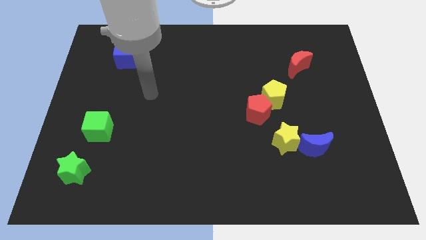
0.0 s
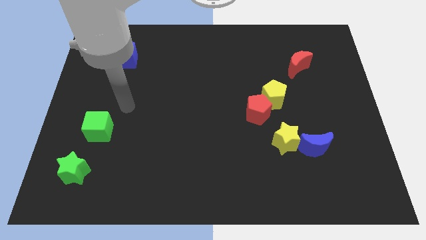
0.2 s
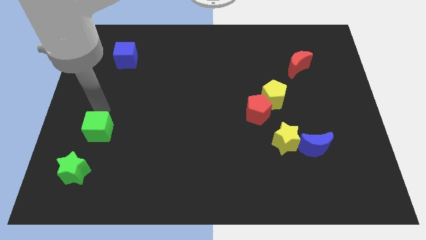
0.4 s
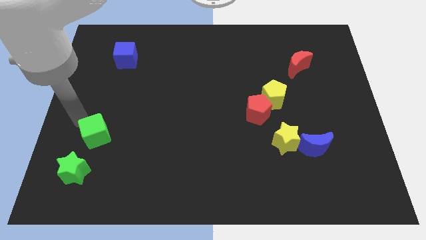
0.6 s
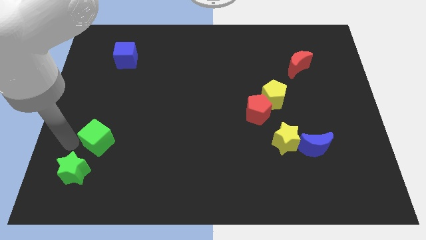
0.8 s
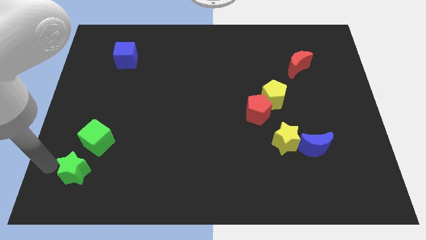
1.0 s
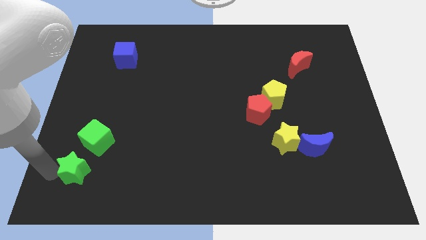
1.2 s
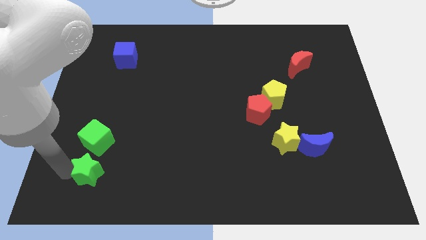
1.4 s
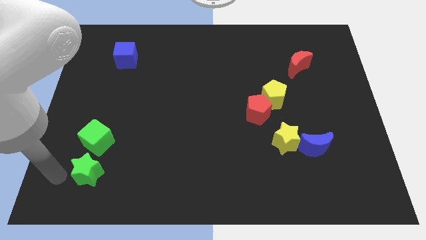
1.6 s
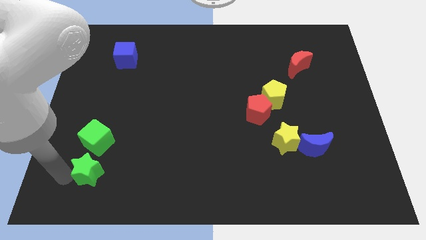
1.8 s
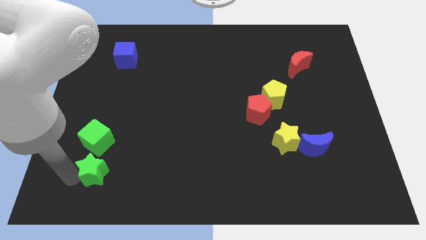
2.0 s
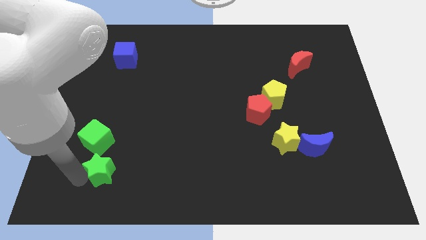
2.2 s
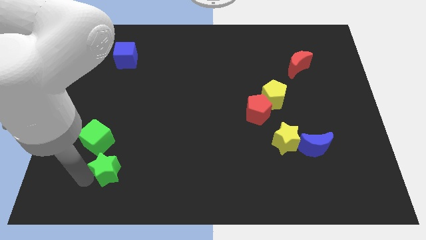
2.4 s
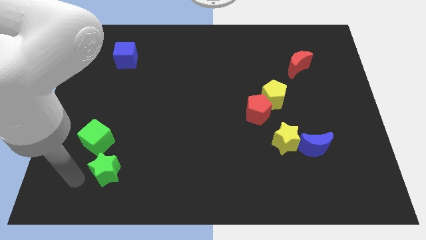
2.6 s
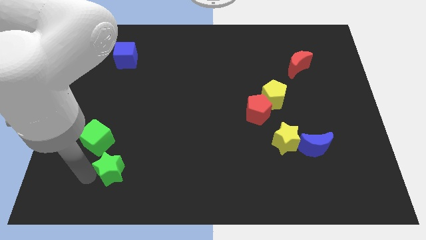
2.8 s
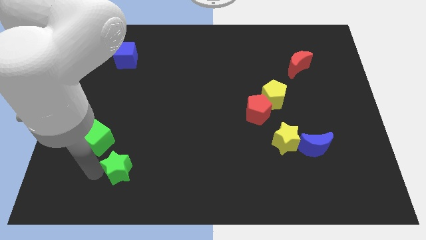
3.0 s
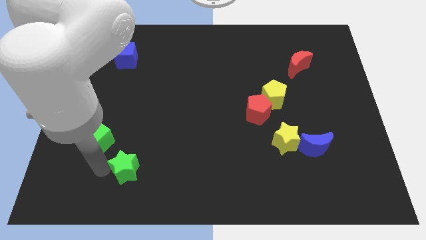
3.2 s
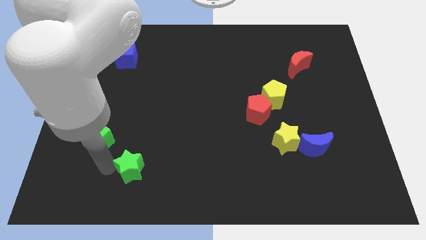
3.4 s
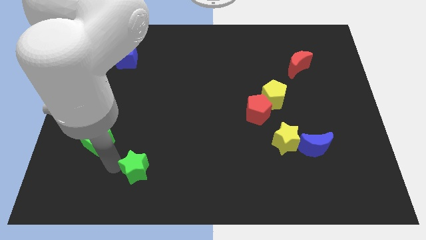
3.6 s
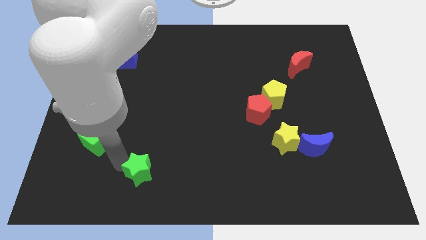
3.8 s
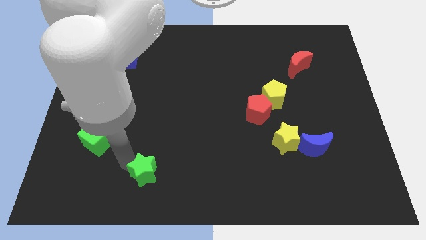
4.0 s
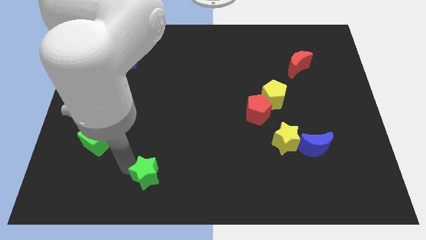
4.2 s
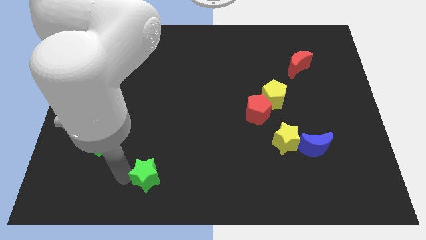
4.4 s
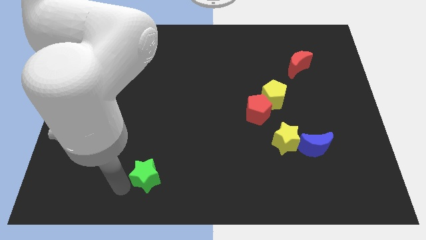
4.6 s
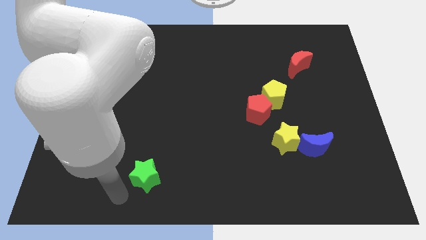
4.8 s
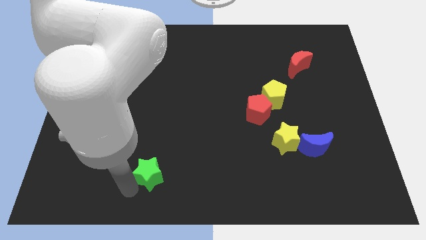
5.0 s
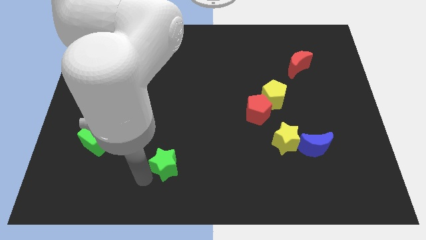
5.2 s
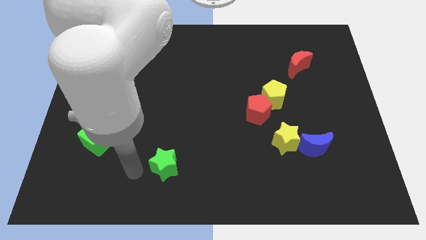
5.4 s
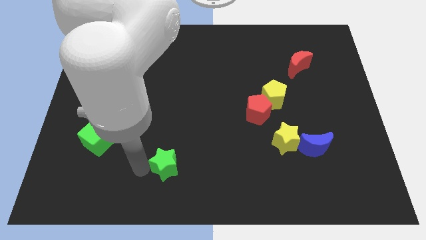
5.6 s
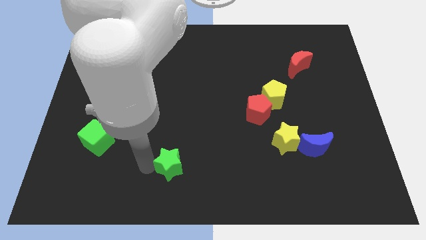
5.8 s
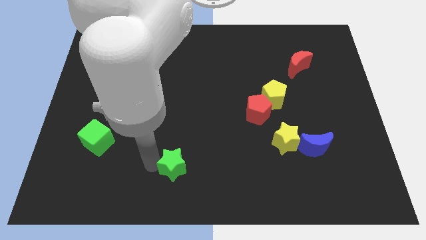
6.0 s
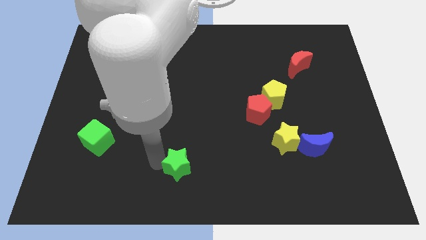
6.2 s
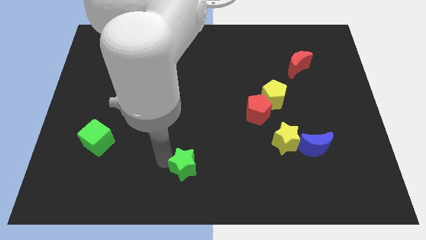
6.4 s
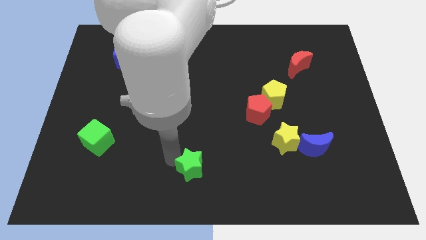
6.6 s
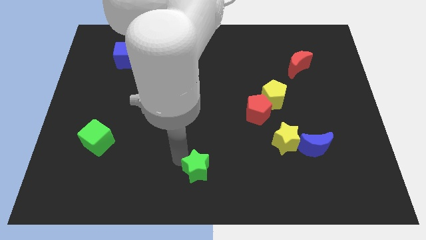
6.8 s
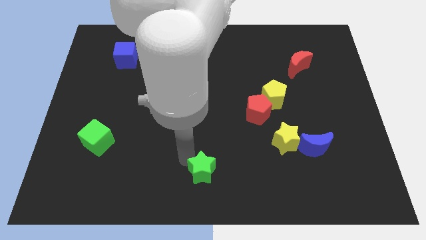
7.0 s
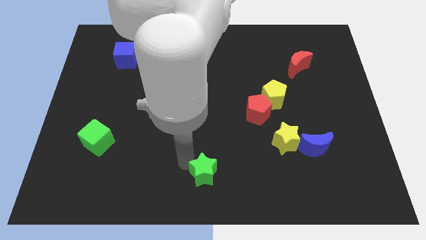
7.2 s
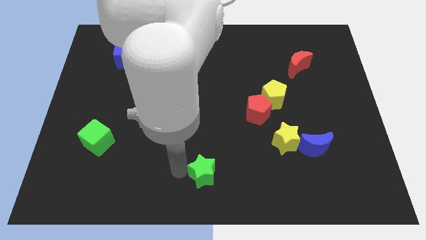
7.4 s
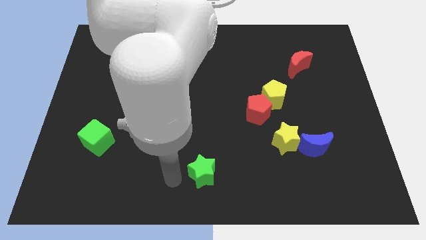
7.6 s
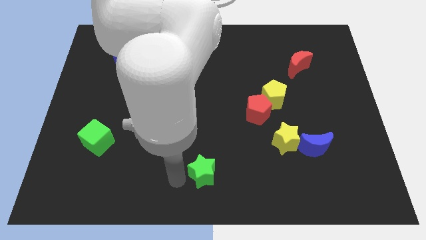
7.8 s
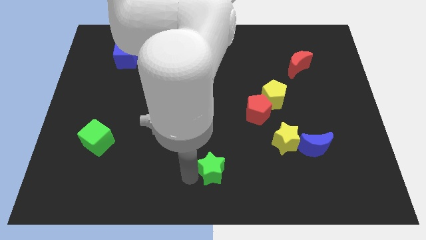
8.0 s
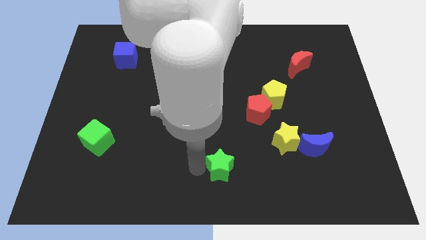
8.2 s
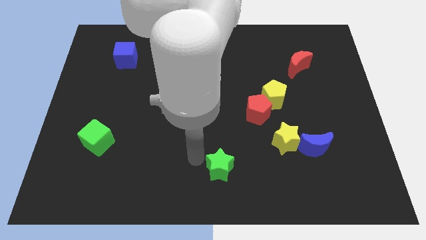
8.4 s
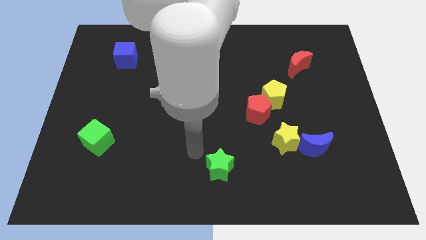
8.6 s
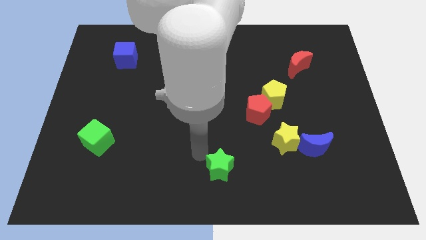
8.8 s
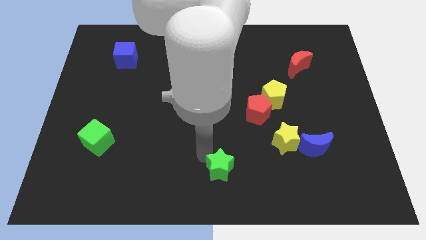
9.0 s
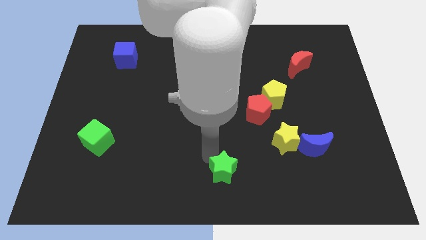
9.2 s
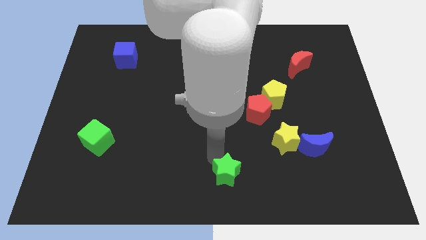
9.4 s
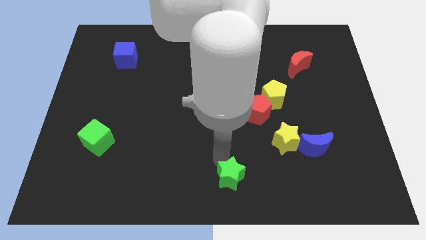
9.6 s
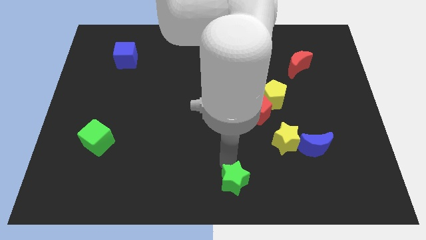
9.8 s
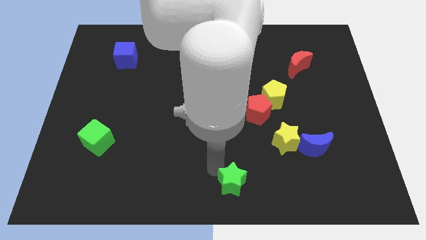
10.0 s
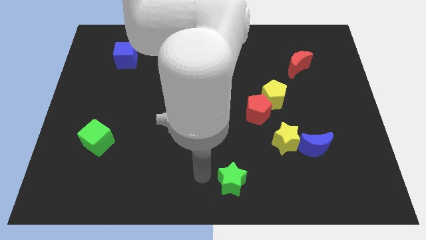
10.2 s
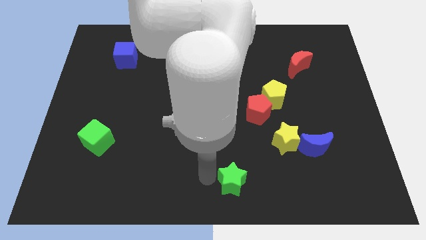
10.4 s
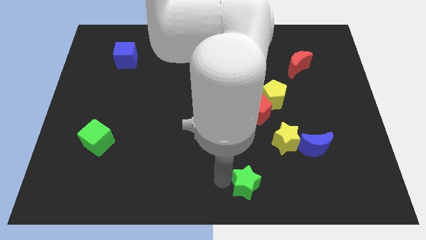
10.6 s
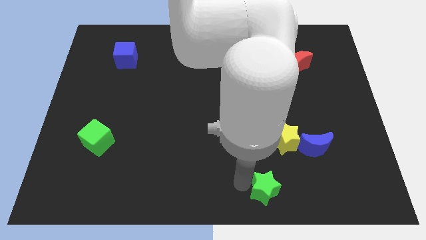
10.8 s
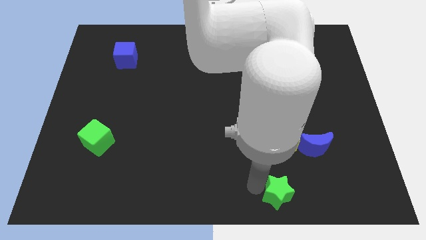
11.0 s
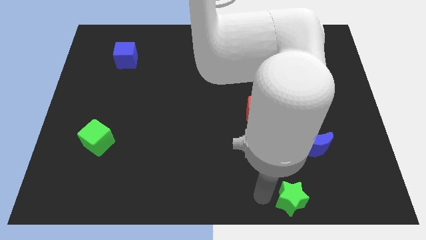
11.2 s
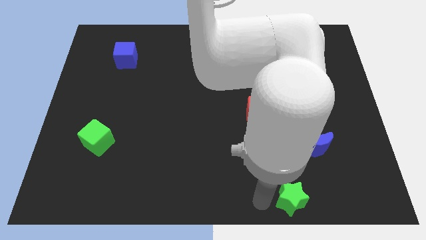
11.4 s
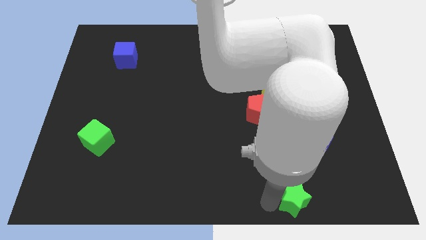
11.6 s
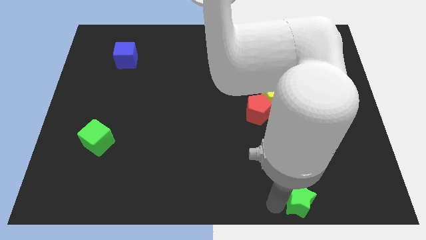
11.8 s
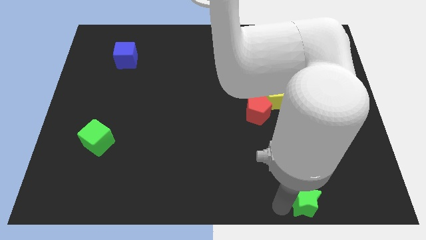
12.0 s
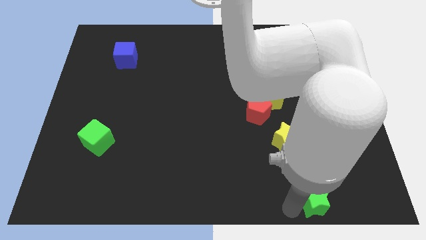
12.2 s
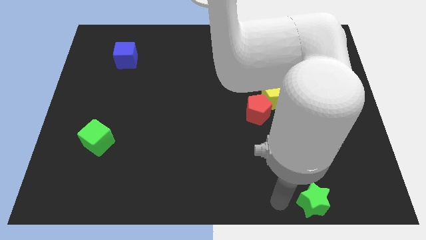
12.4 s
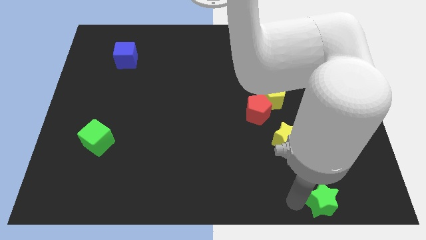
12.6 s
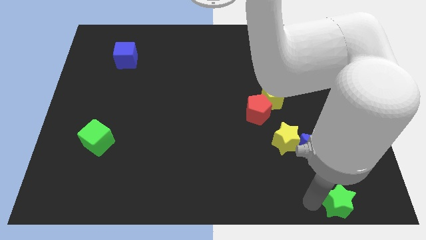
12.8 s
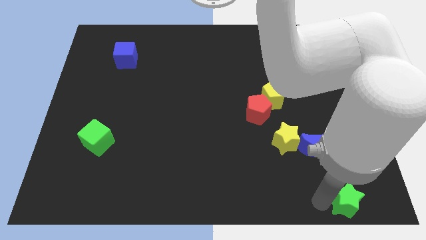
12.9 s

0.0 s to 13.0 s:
push the green star to the bottom right of the board
